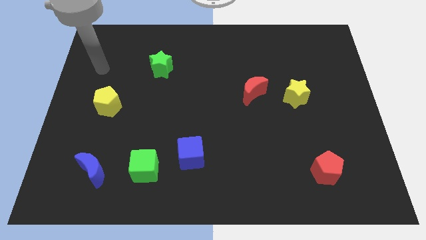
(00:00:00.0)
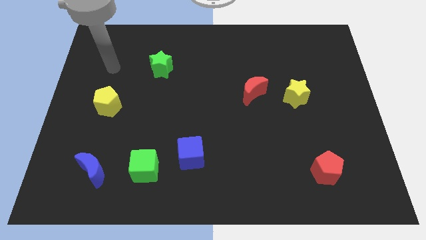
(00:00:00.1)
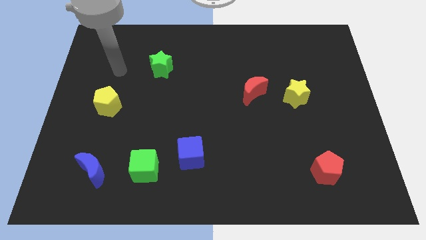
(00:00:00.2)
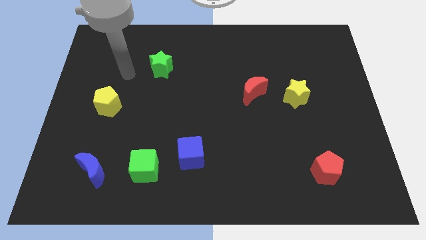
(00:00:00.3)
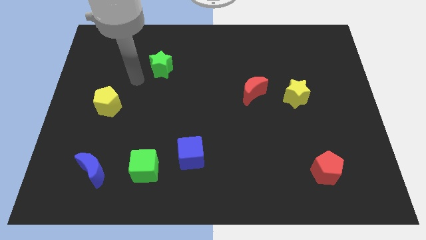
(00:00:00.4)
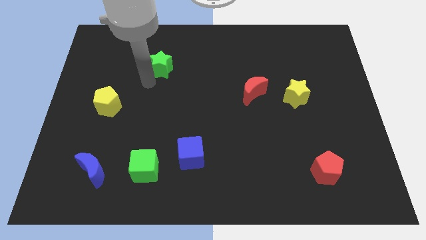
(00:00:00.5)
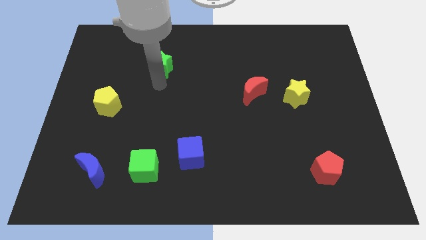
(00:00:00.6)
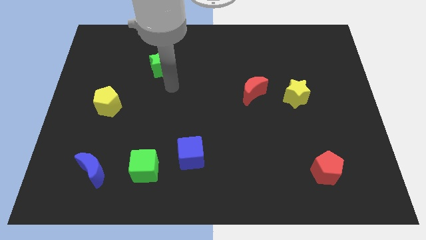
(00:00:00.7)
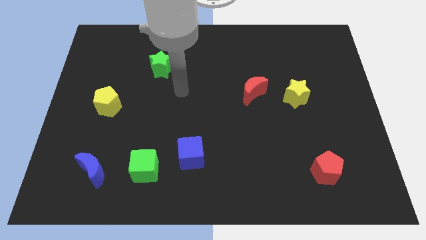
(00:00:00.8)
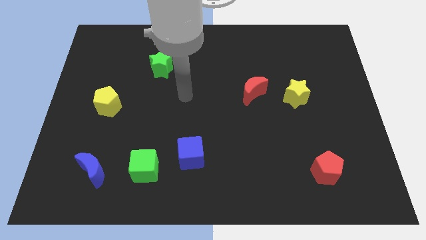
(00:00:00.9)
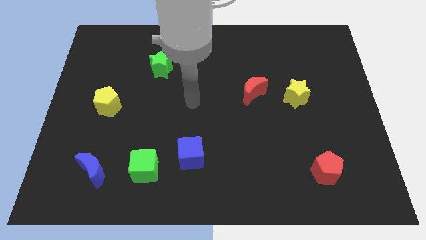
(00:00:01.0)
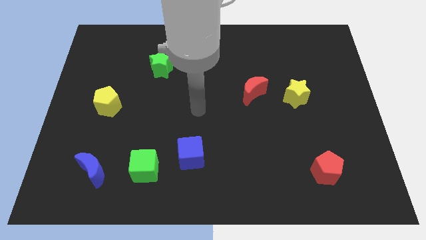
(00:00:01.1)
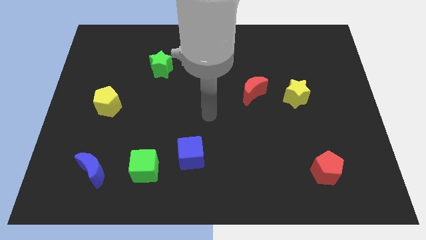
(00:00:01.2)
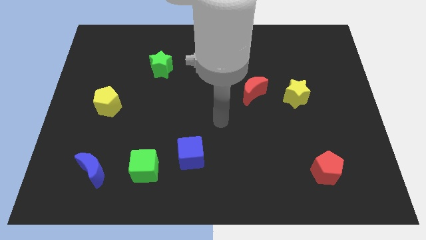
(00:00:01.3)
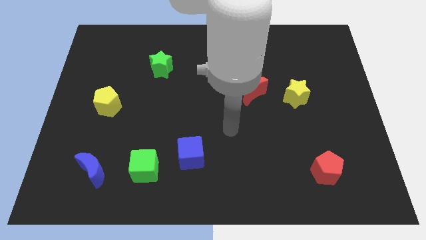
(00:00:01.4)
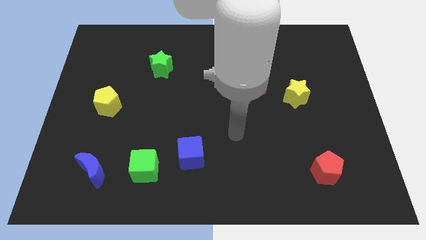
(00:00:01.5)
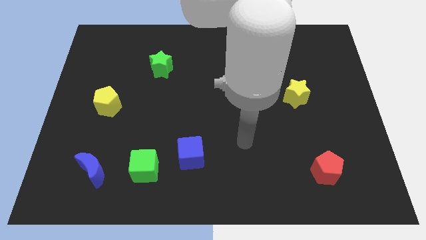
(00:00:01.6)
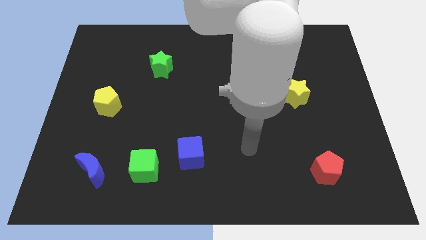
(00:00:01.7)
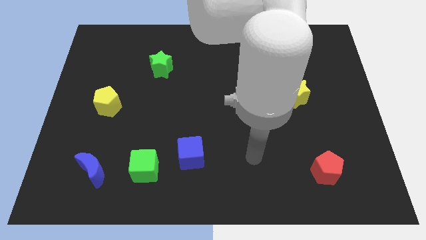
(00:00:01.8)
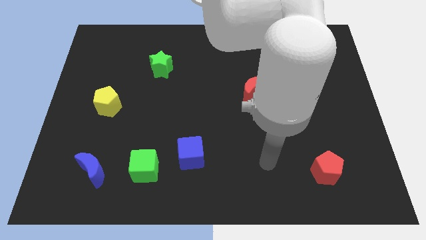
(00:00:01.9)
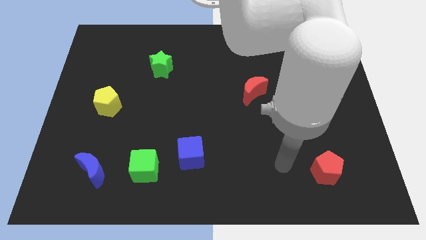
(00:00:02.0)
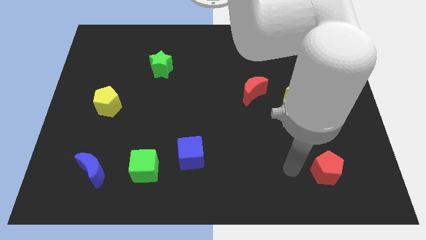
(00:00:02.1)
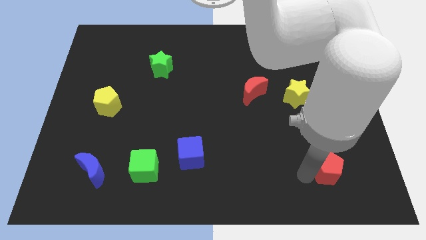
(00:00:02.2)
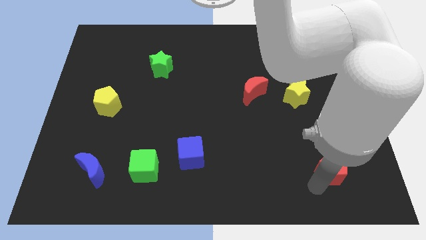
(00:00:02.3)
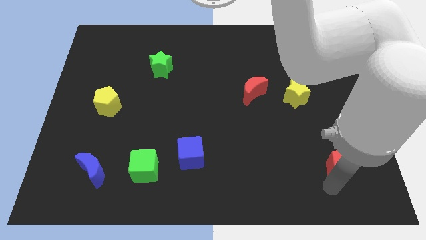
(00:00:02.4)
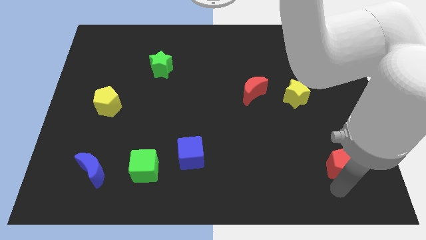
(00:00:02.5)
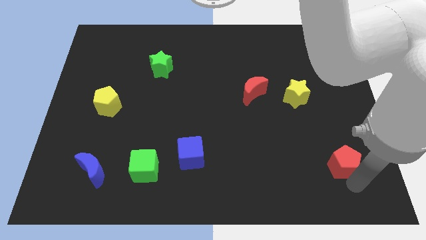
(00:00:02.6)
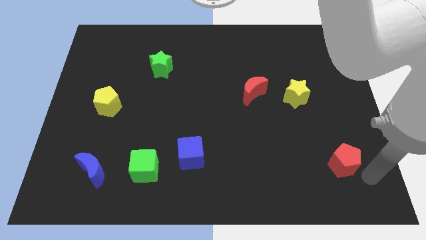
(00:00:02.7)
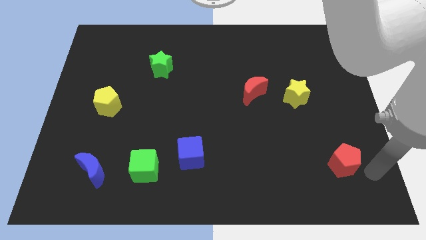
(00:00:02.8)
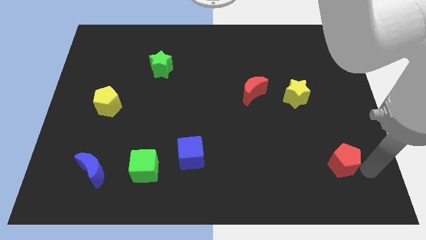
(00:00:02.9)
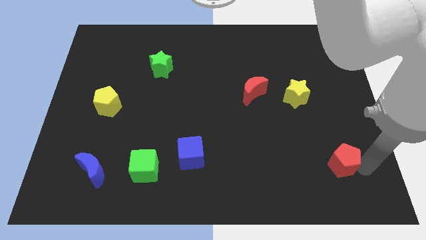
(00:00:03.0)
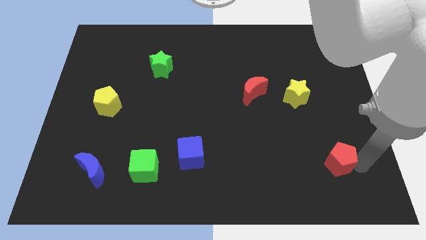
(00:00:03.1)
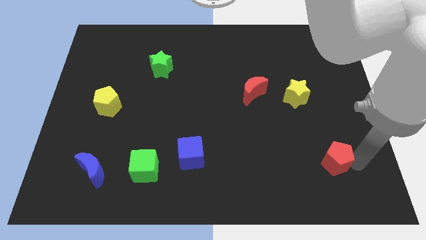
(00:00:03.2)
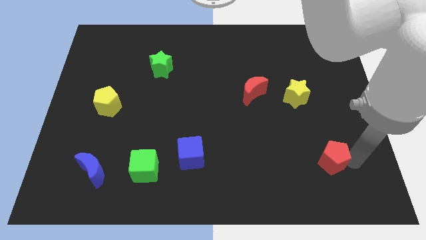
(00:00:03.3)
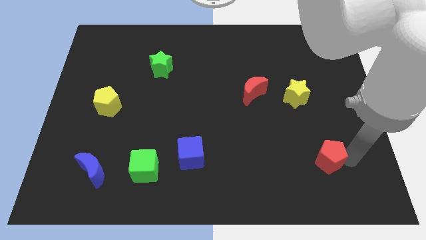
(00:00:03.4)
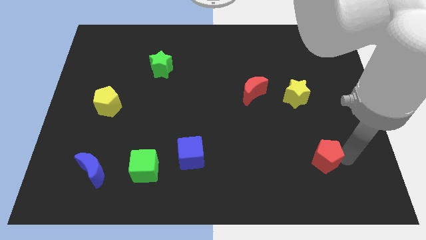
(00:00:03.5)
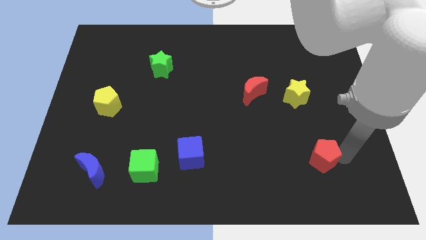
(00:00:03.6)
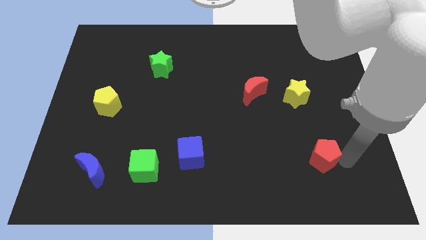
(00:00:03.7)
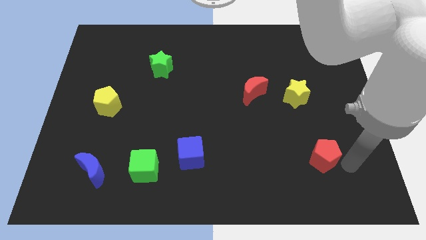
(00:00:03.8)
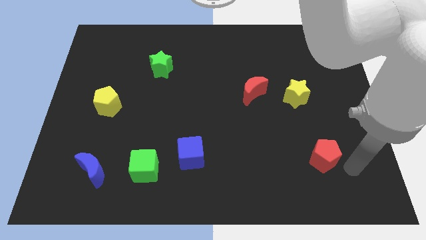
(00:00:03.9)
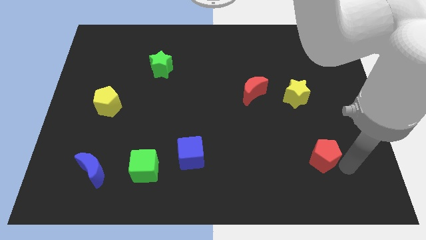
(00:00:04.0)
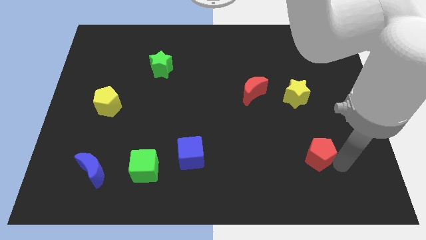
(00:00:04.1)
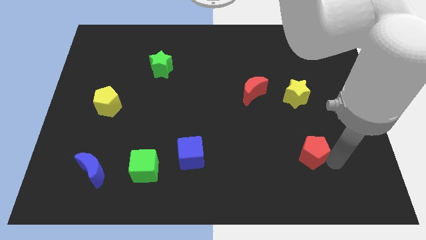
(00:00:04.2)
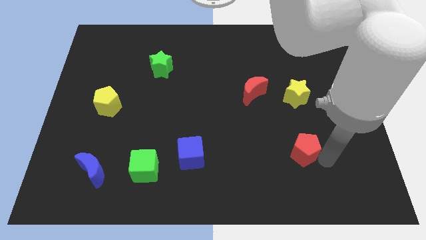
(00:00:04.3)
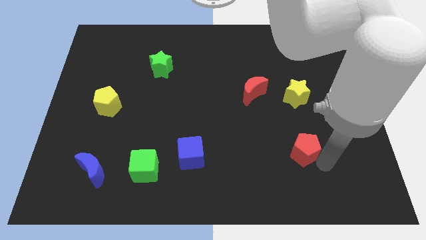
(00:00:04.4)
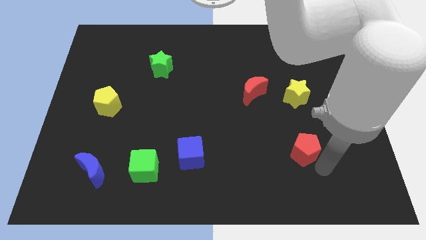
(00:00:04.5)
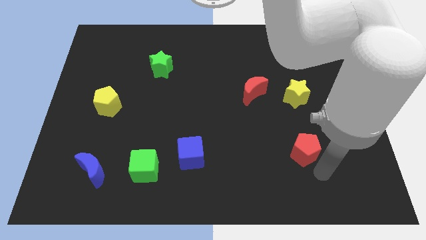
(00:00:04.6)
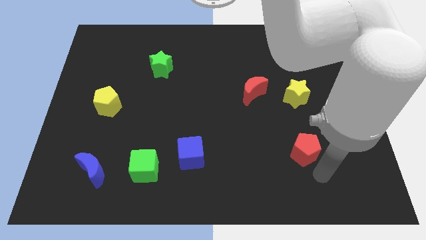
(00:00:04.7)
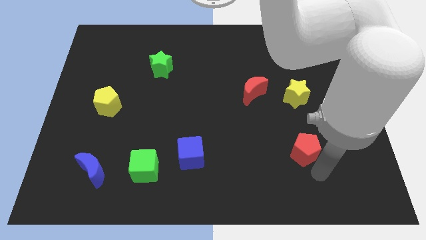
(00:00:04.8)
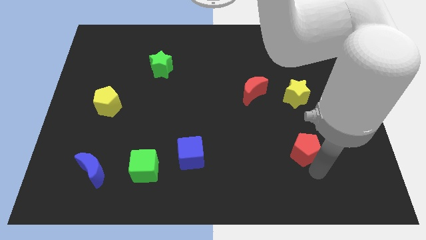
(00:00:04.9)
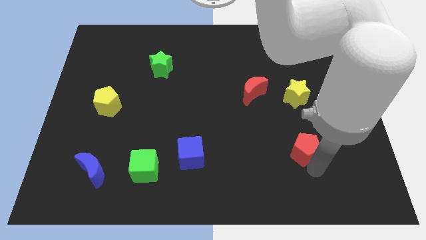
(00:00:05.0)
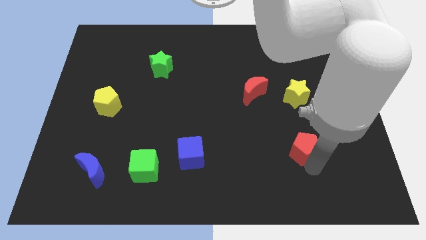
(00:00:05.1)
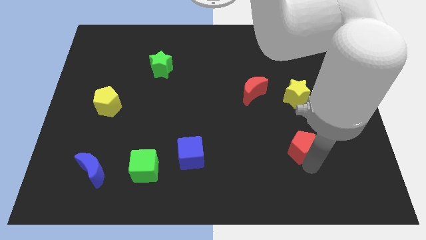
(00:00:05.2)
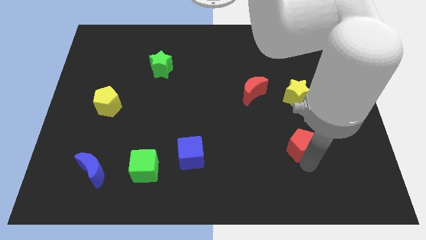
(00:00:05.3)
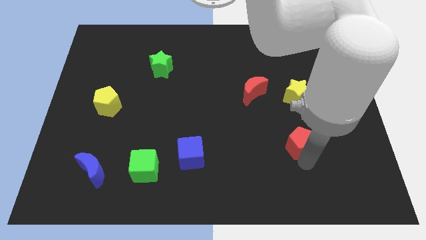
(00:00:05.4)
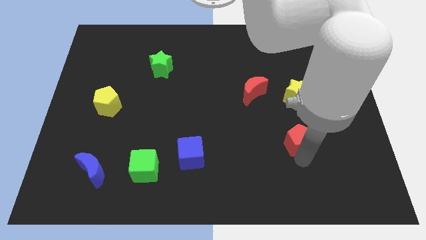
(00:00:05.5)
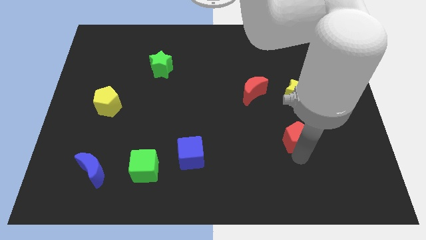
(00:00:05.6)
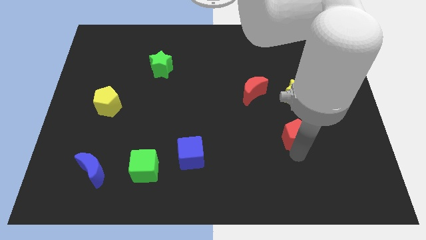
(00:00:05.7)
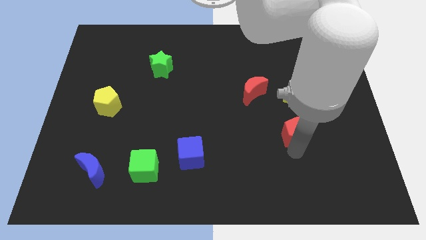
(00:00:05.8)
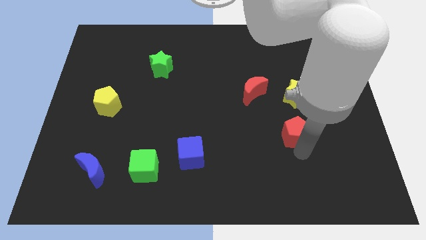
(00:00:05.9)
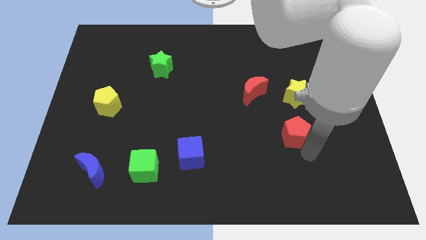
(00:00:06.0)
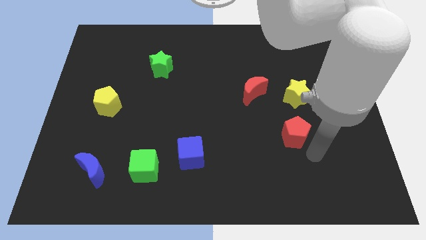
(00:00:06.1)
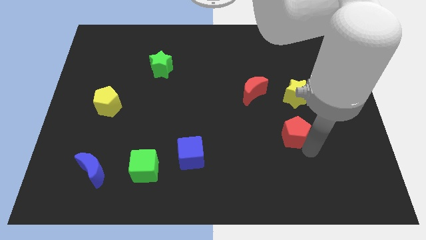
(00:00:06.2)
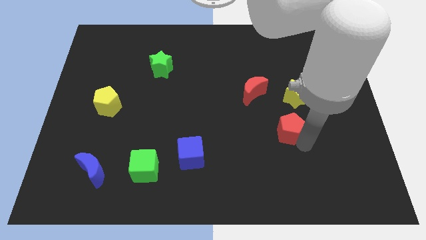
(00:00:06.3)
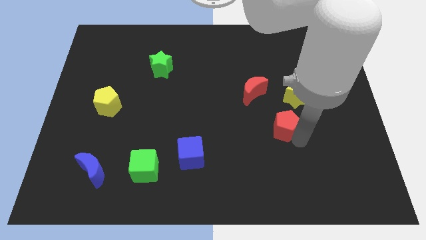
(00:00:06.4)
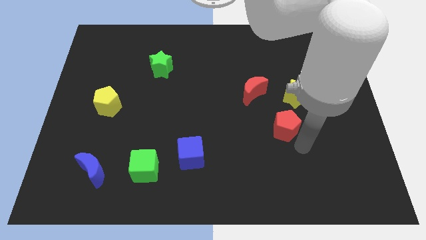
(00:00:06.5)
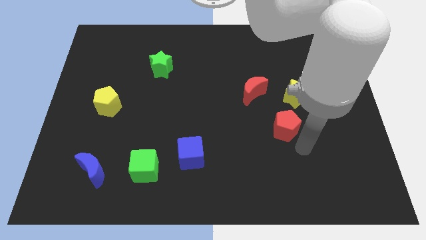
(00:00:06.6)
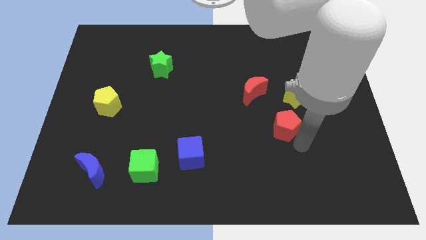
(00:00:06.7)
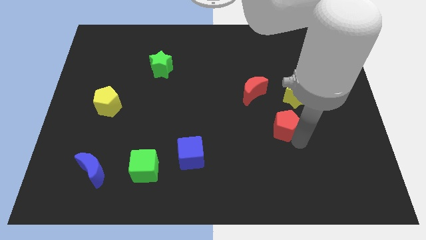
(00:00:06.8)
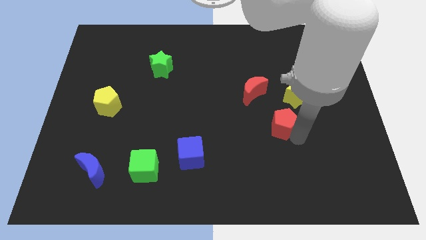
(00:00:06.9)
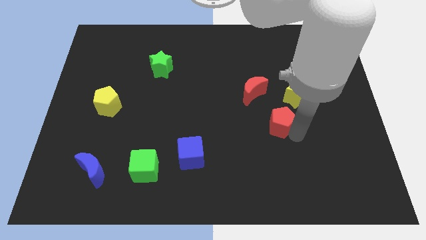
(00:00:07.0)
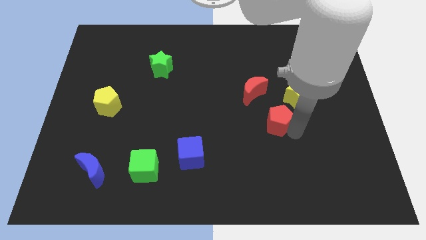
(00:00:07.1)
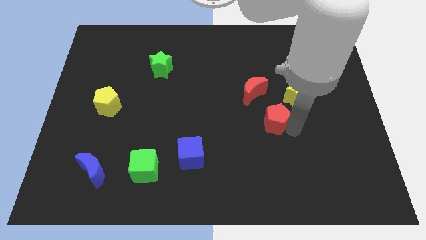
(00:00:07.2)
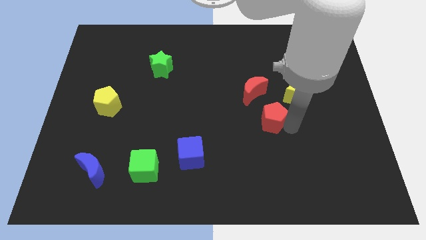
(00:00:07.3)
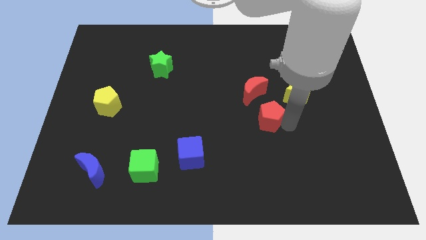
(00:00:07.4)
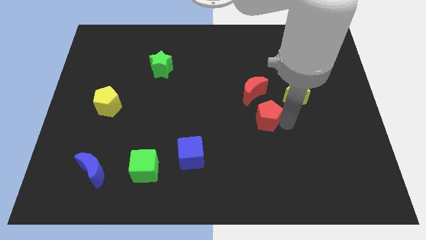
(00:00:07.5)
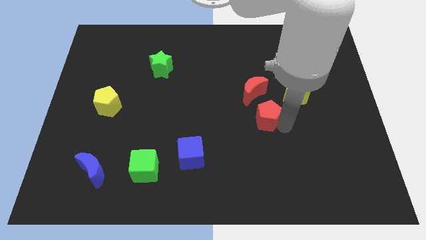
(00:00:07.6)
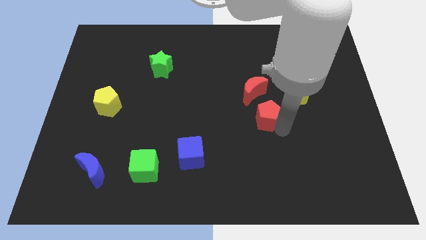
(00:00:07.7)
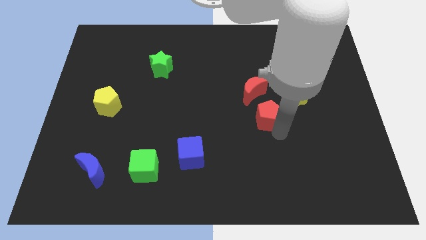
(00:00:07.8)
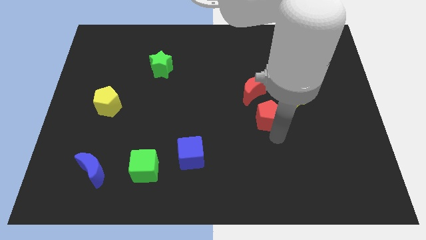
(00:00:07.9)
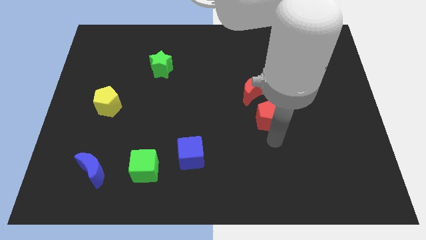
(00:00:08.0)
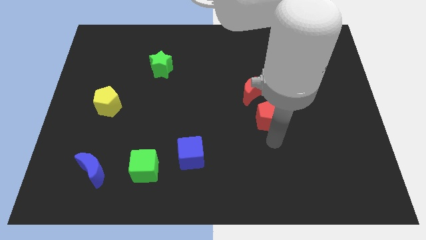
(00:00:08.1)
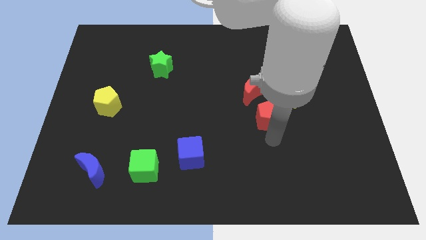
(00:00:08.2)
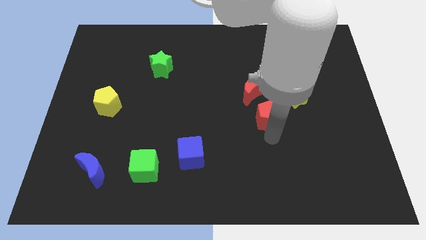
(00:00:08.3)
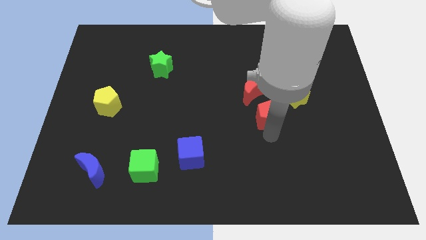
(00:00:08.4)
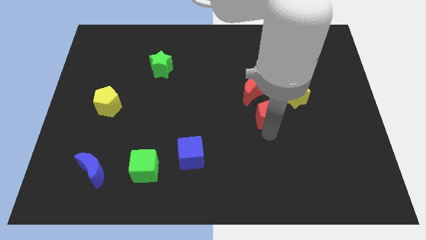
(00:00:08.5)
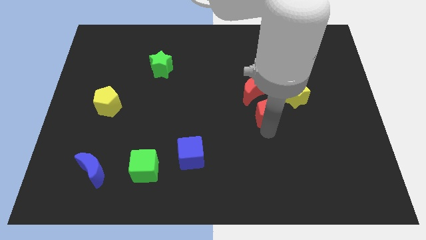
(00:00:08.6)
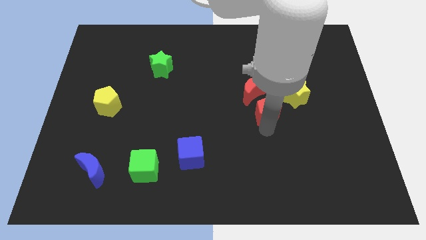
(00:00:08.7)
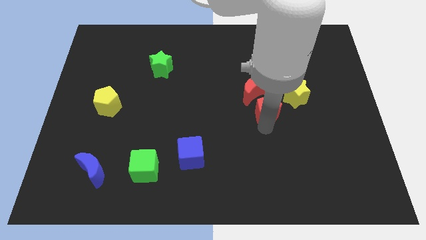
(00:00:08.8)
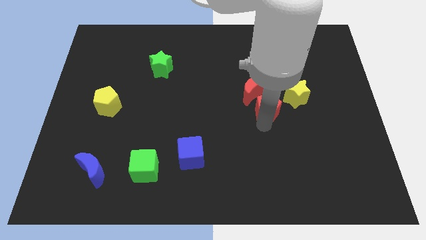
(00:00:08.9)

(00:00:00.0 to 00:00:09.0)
slide the red pentagon towards the red moon
